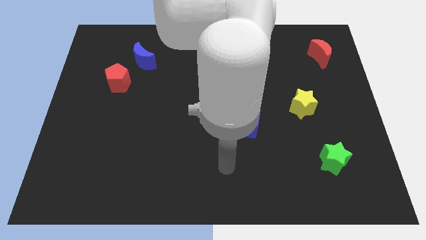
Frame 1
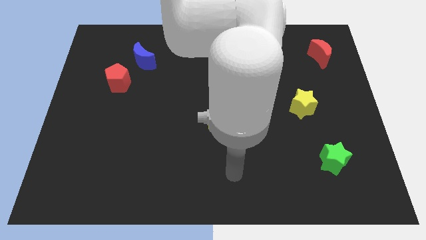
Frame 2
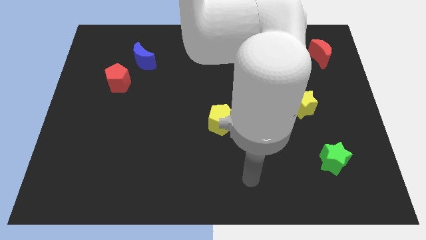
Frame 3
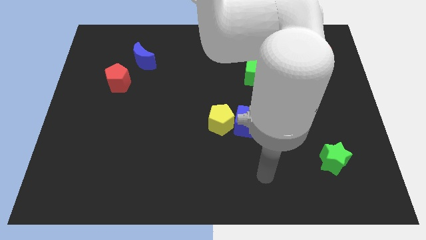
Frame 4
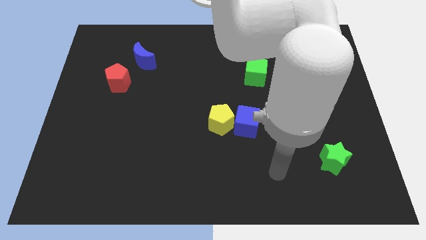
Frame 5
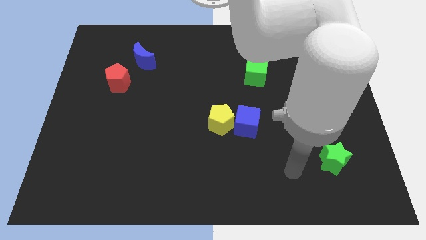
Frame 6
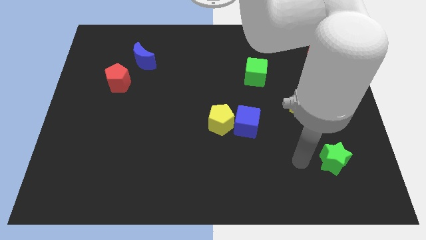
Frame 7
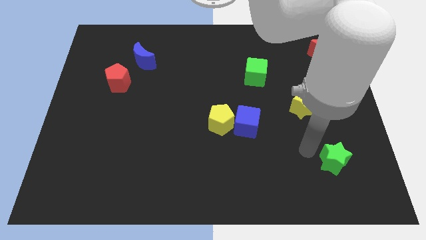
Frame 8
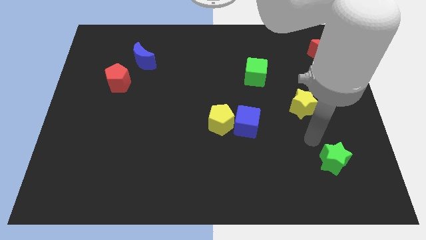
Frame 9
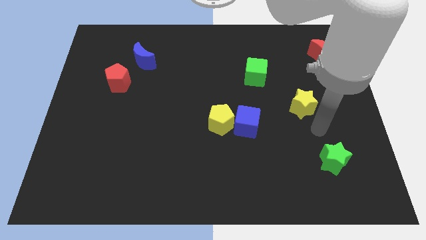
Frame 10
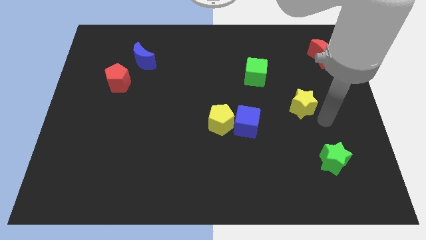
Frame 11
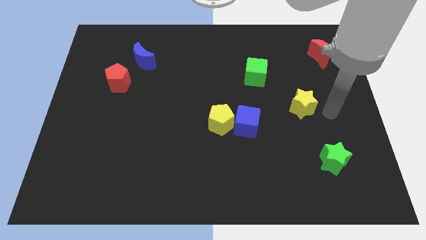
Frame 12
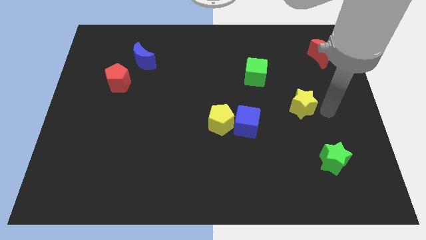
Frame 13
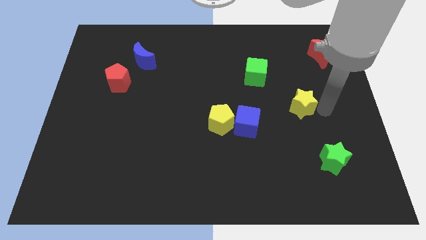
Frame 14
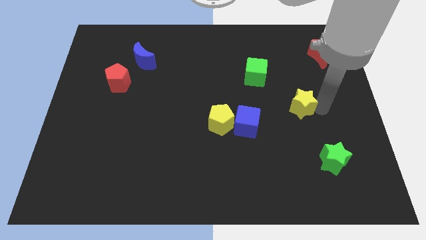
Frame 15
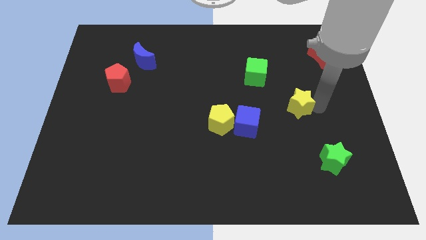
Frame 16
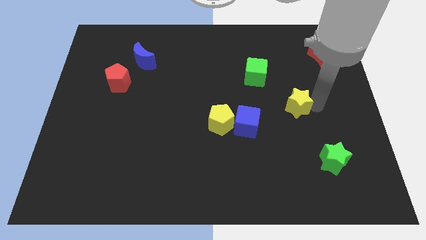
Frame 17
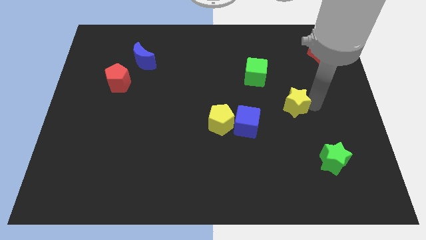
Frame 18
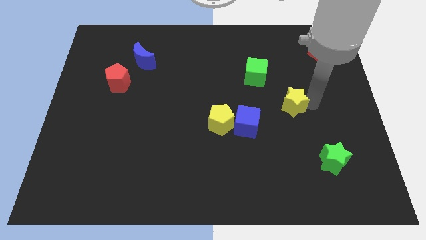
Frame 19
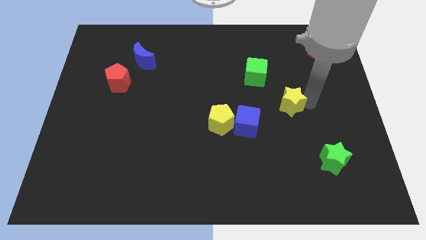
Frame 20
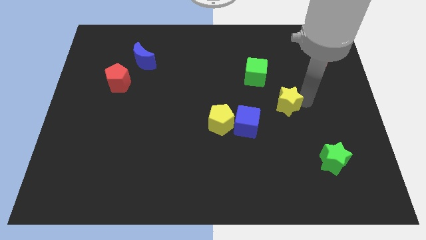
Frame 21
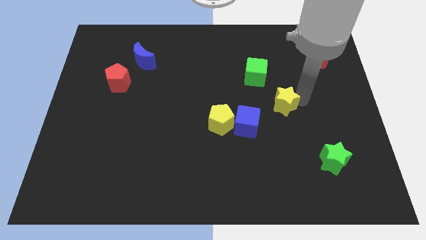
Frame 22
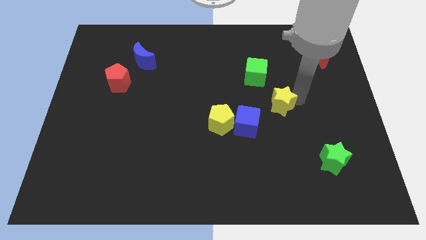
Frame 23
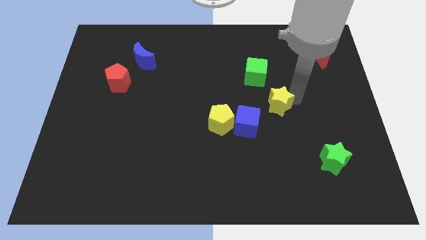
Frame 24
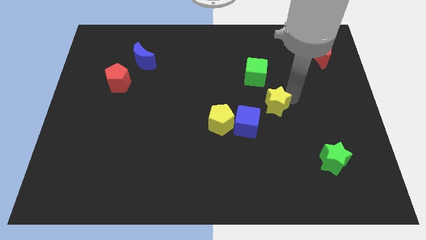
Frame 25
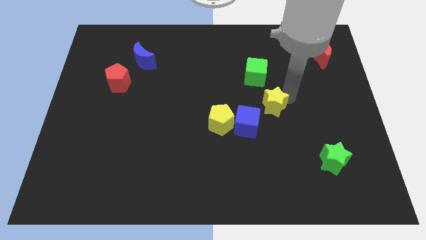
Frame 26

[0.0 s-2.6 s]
slightly push the yellow star left

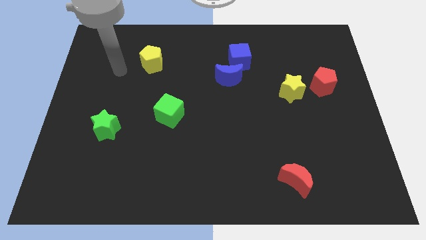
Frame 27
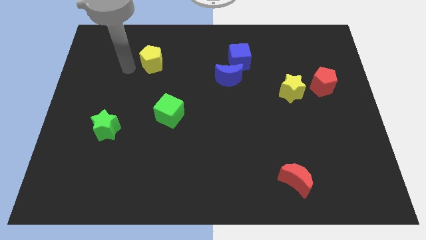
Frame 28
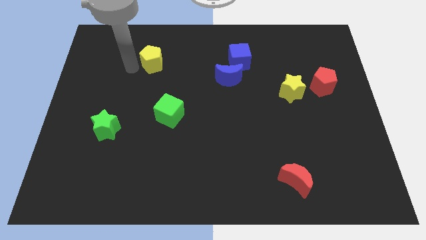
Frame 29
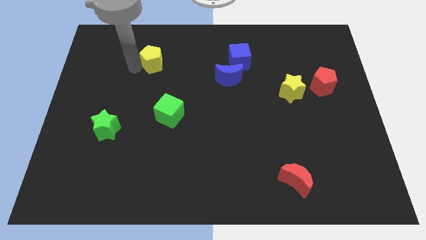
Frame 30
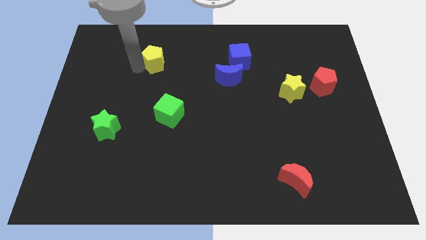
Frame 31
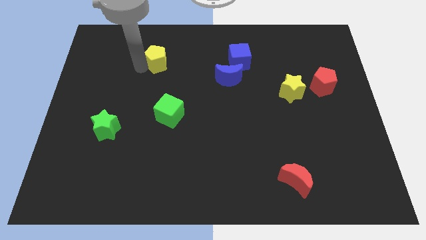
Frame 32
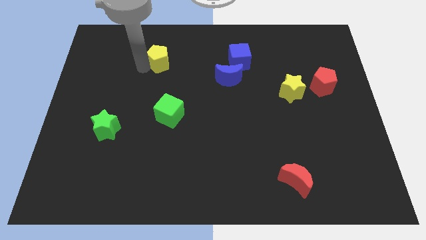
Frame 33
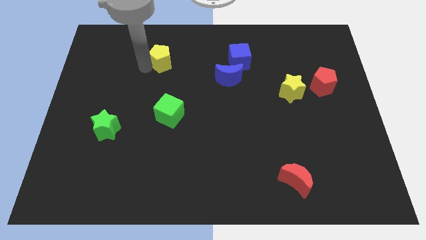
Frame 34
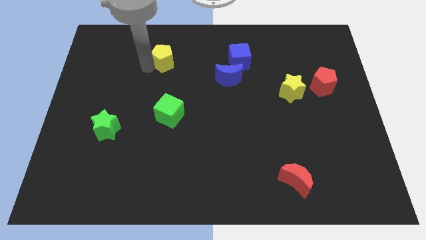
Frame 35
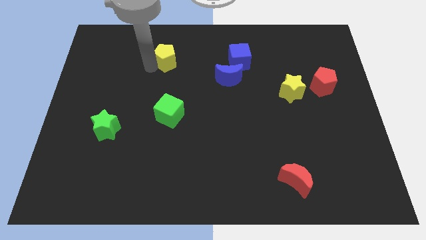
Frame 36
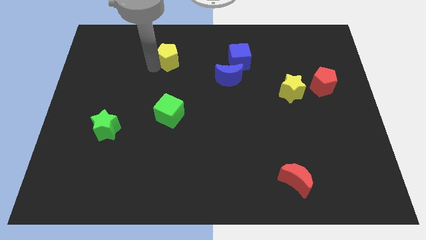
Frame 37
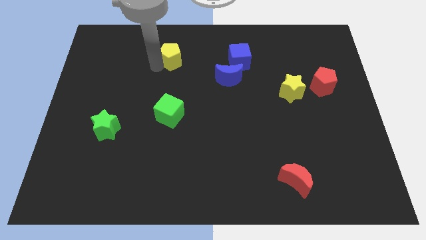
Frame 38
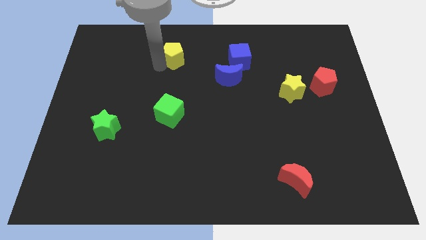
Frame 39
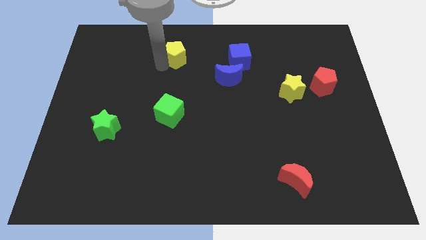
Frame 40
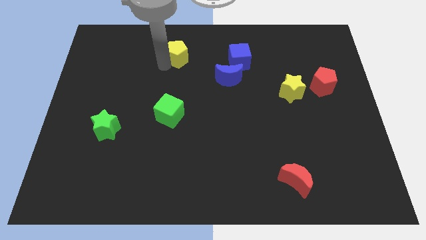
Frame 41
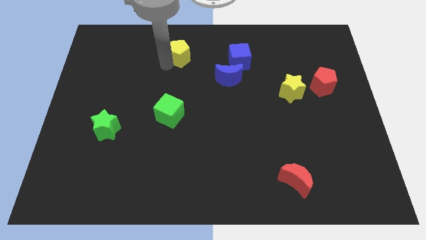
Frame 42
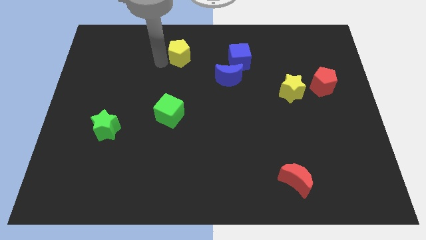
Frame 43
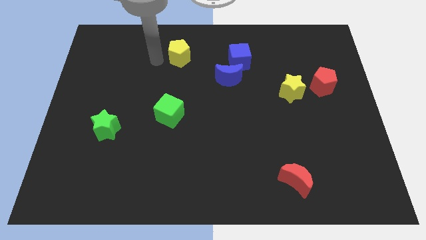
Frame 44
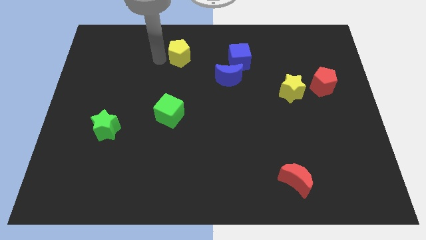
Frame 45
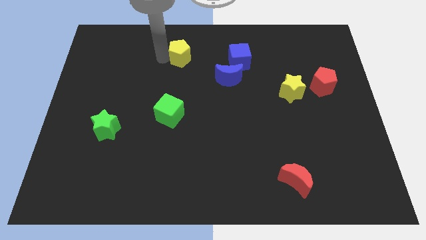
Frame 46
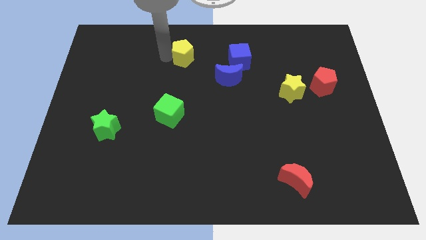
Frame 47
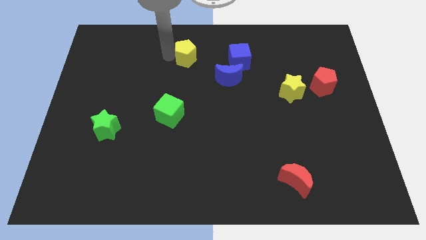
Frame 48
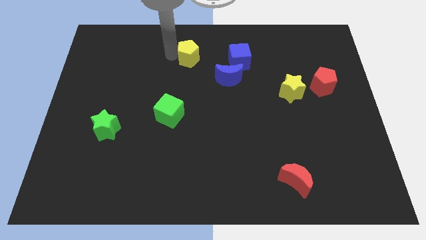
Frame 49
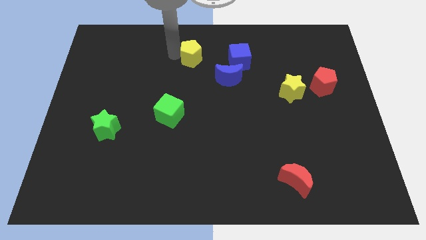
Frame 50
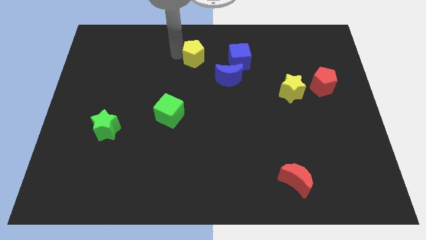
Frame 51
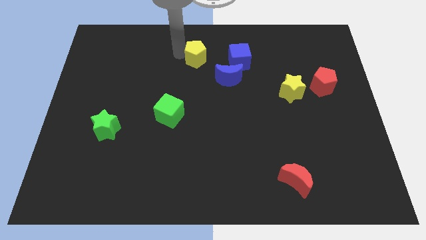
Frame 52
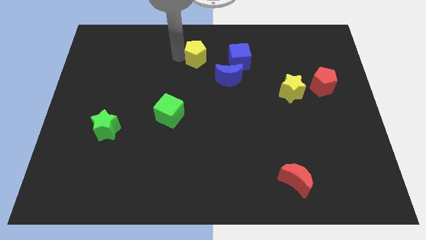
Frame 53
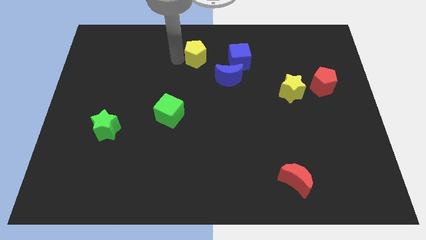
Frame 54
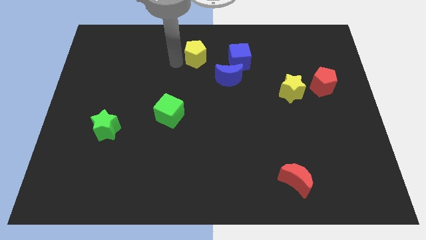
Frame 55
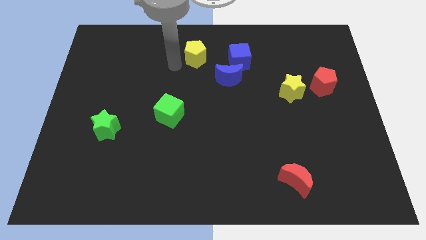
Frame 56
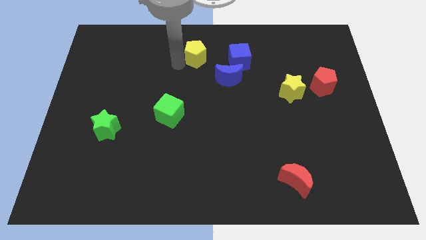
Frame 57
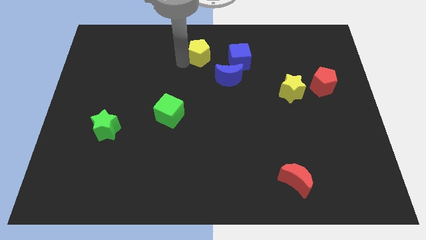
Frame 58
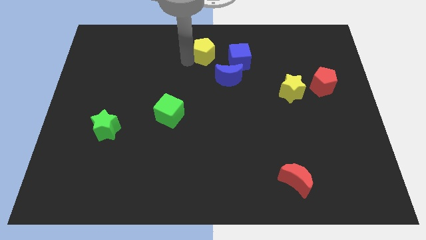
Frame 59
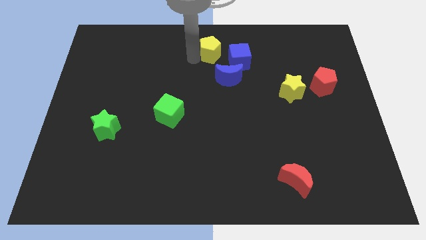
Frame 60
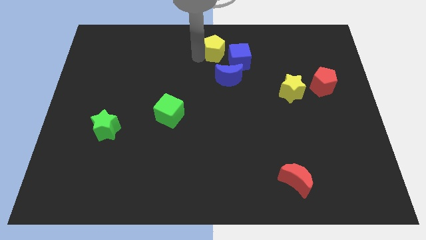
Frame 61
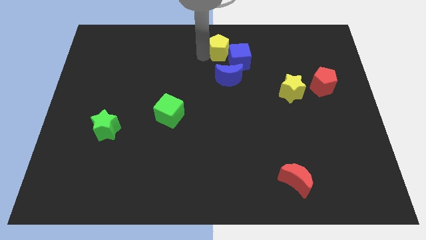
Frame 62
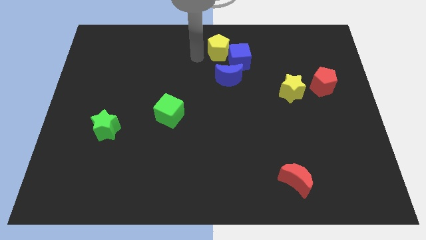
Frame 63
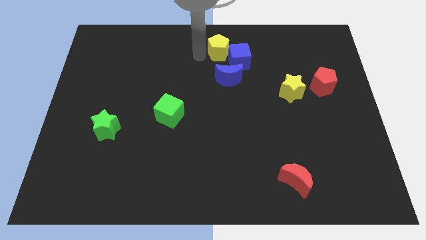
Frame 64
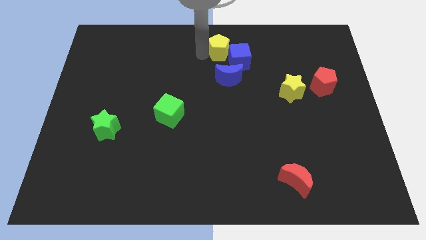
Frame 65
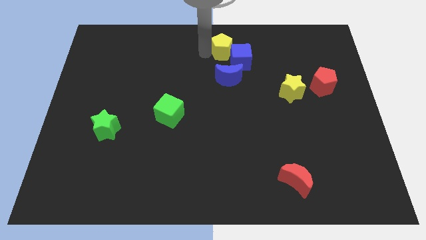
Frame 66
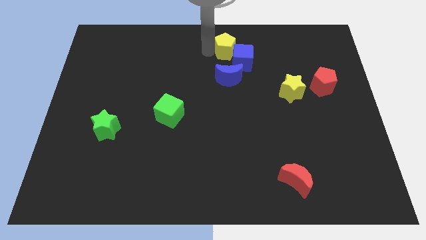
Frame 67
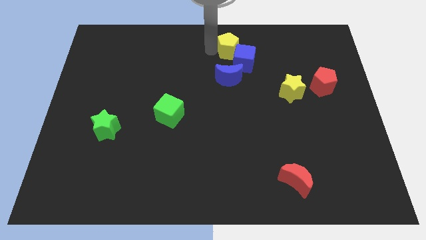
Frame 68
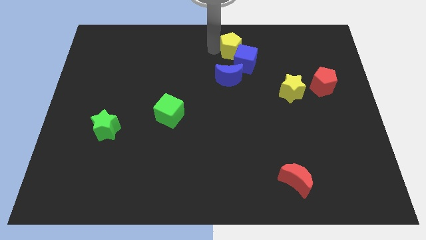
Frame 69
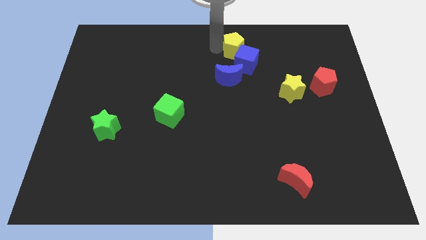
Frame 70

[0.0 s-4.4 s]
move the yellow pentagon right

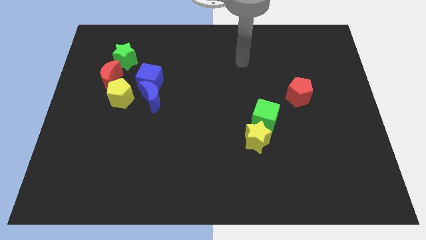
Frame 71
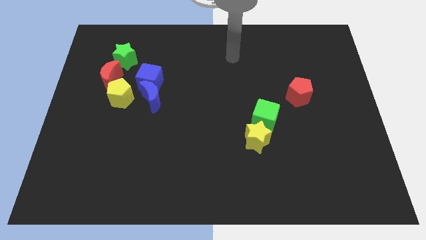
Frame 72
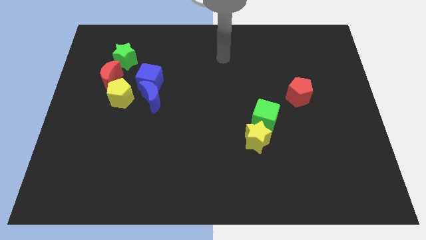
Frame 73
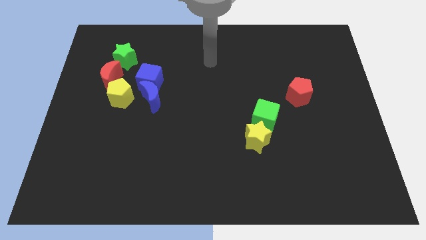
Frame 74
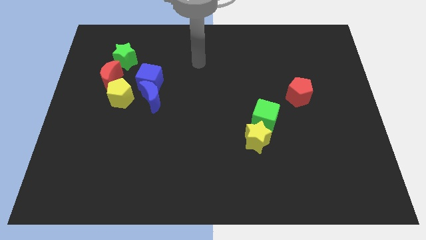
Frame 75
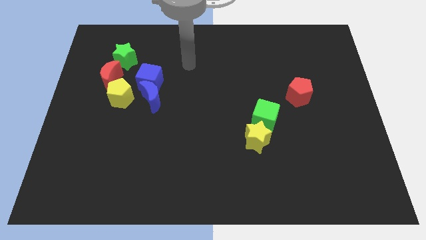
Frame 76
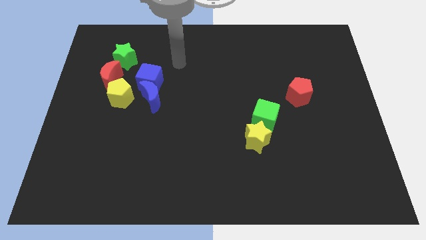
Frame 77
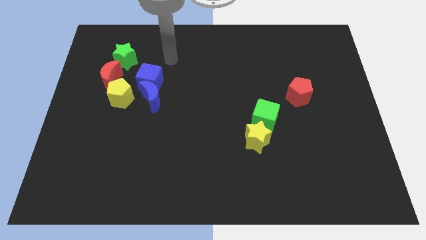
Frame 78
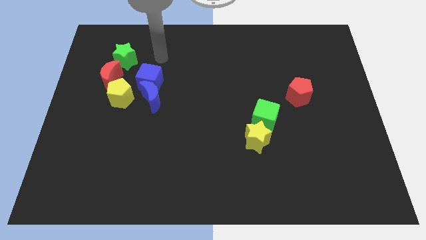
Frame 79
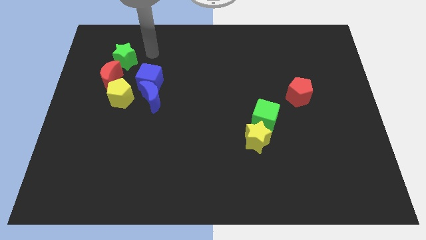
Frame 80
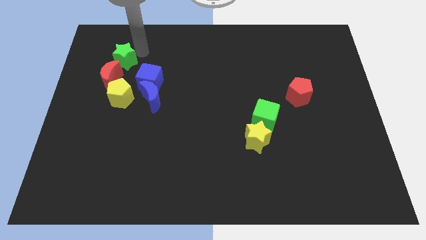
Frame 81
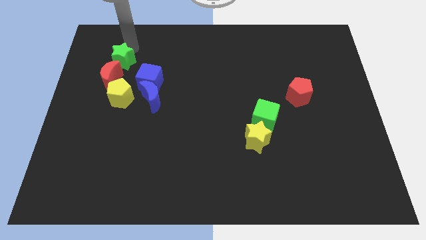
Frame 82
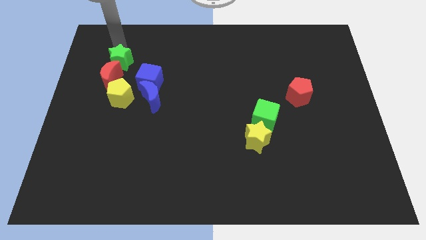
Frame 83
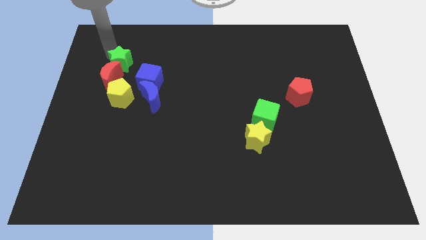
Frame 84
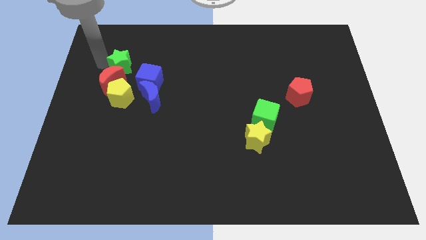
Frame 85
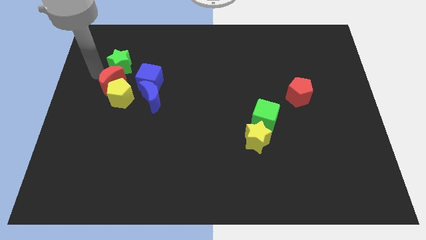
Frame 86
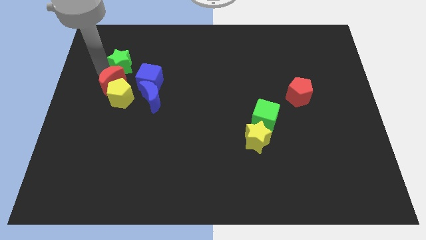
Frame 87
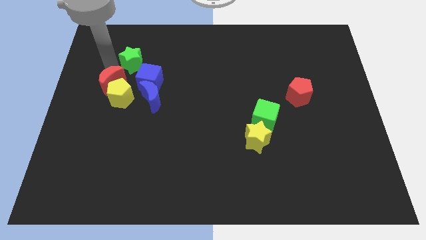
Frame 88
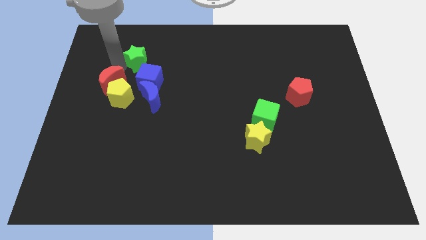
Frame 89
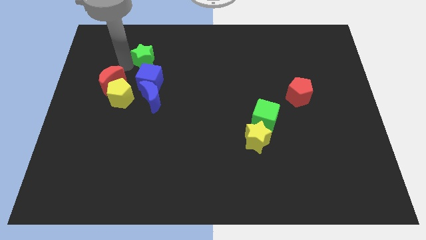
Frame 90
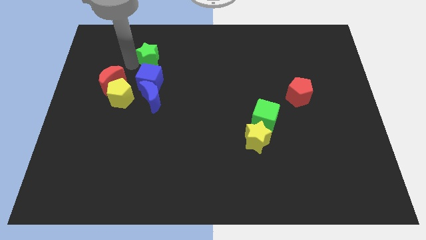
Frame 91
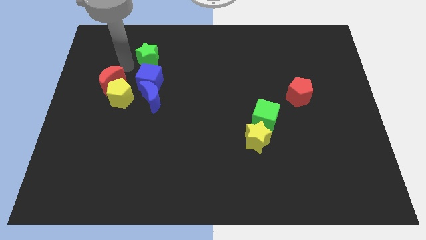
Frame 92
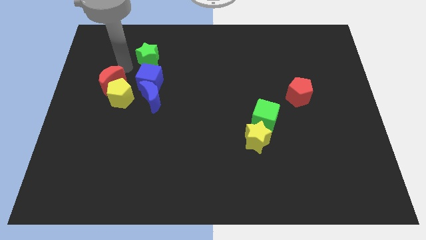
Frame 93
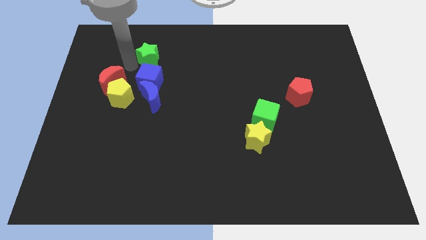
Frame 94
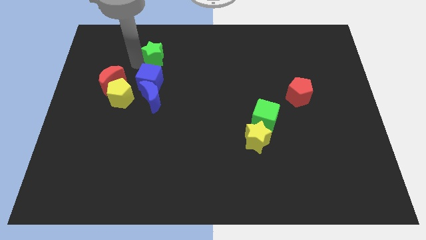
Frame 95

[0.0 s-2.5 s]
slide the green star a little to the right
